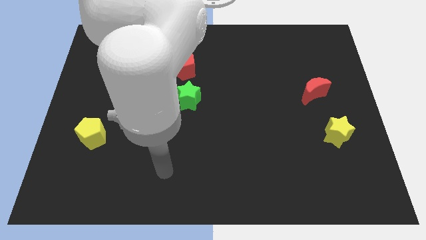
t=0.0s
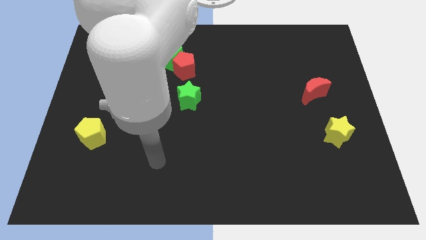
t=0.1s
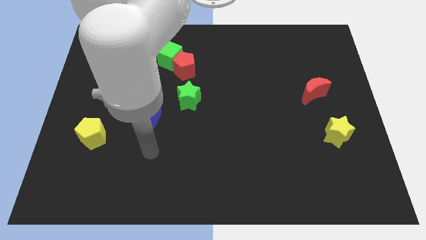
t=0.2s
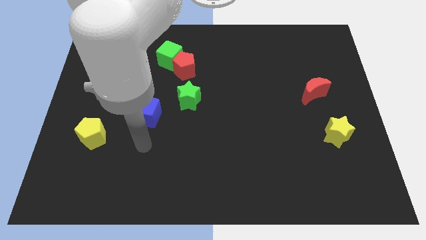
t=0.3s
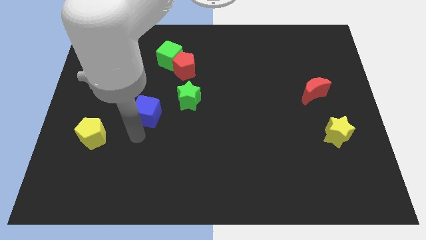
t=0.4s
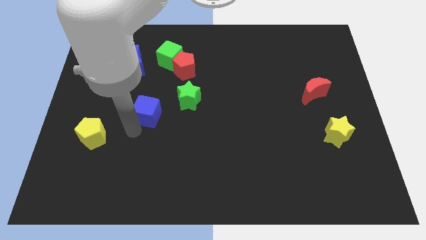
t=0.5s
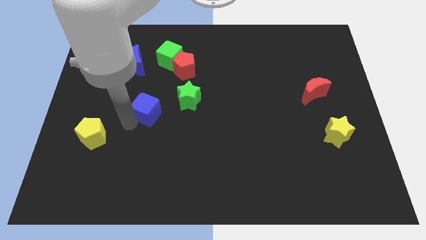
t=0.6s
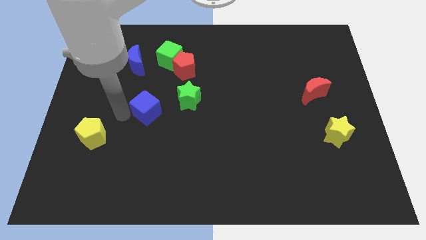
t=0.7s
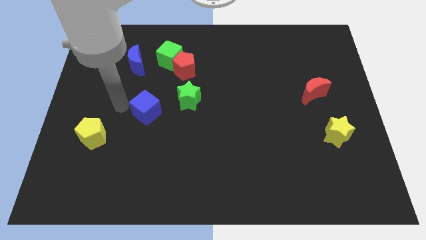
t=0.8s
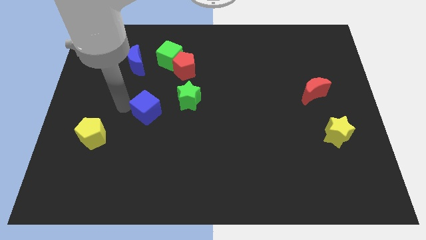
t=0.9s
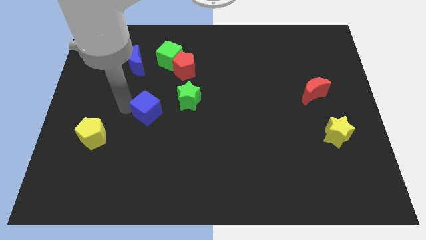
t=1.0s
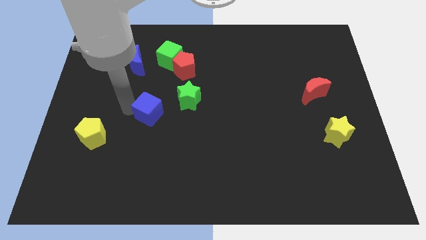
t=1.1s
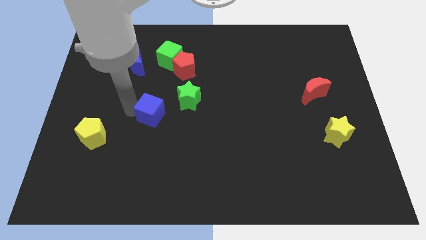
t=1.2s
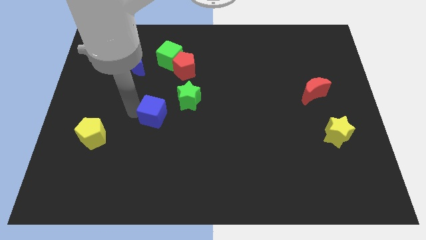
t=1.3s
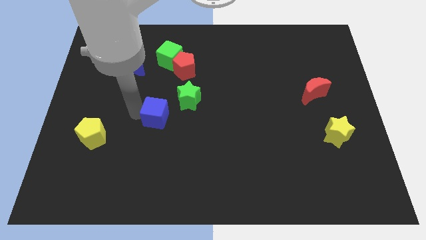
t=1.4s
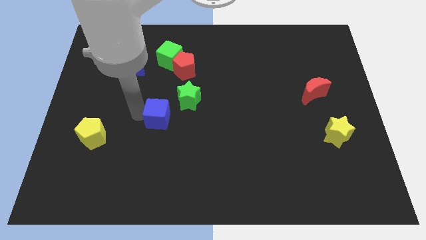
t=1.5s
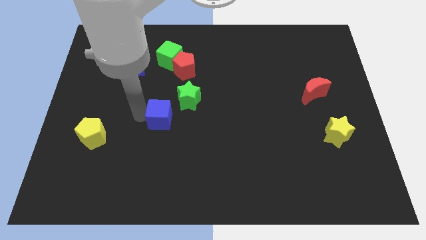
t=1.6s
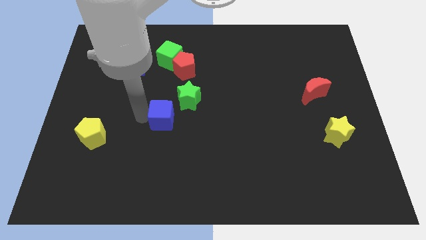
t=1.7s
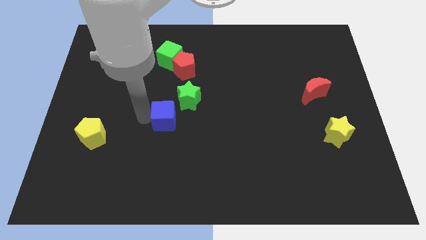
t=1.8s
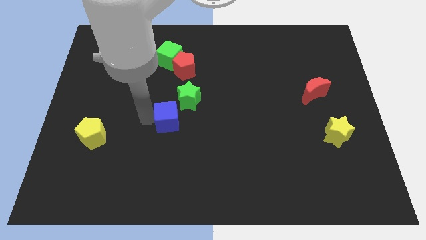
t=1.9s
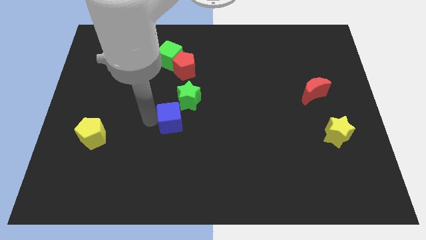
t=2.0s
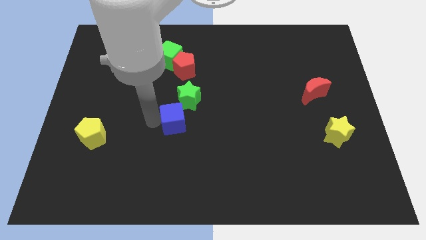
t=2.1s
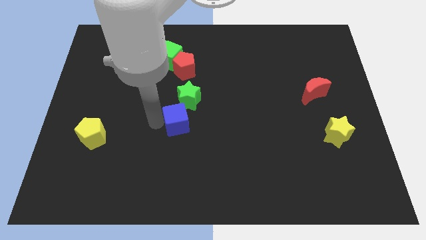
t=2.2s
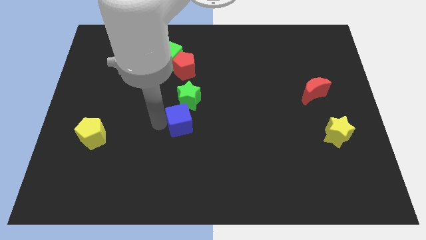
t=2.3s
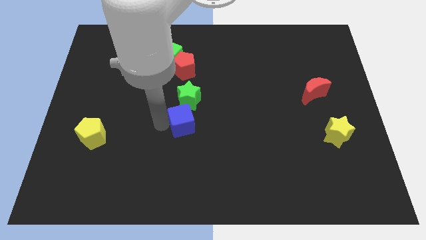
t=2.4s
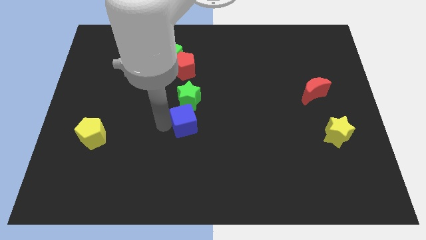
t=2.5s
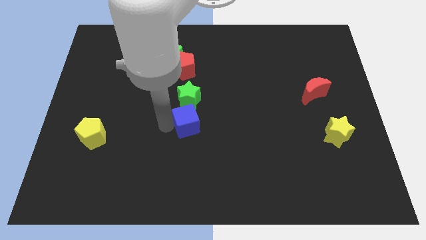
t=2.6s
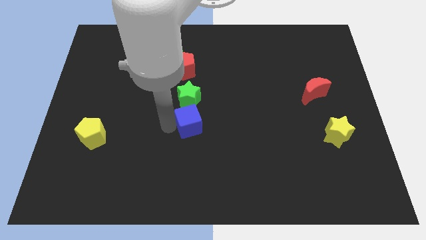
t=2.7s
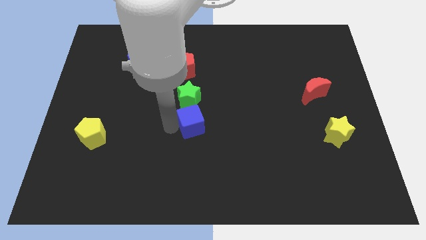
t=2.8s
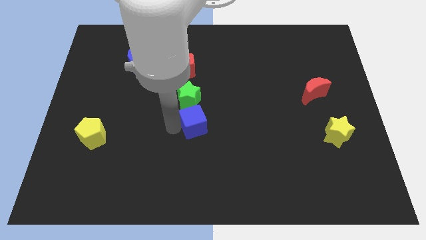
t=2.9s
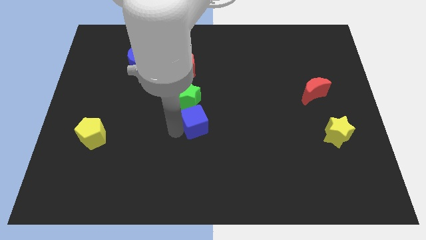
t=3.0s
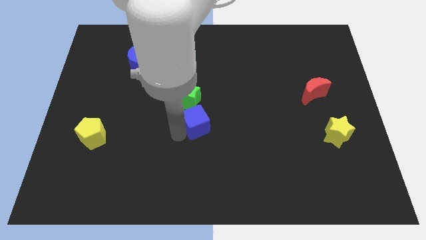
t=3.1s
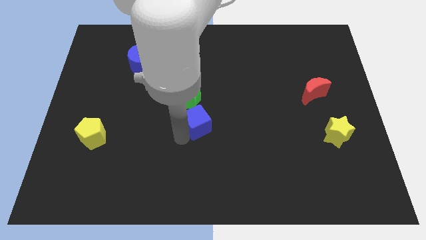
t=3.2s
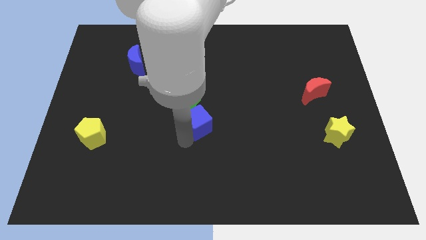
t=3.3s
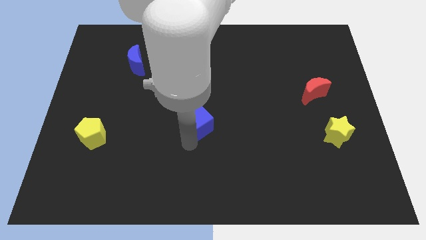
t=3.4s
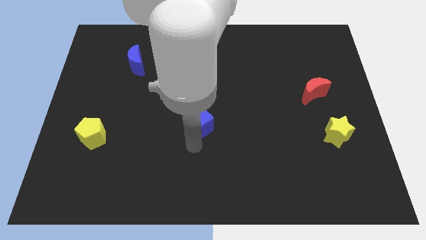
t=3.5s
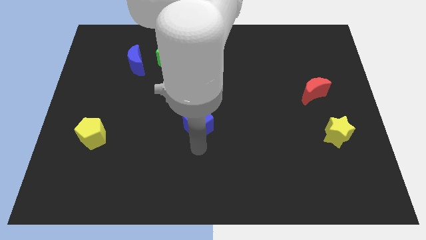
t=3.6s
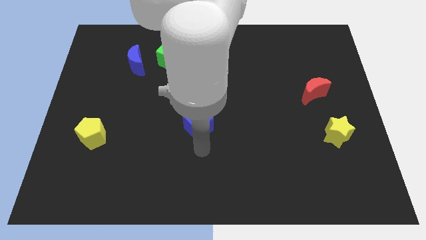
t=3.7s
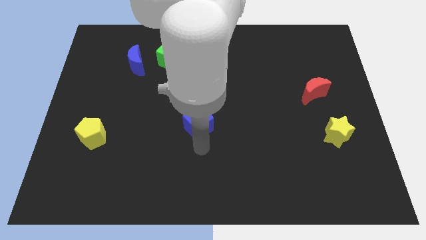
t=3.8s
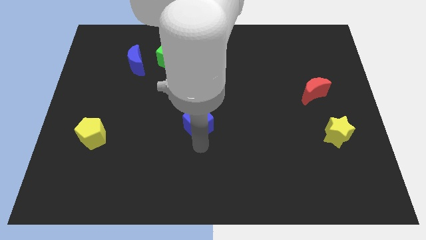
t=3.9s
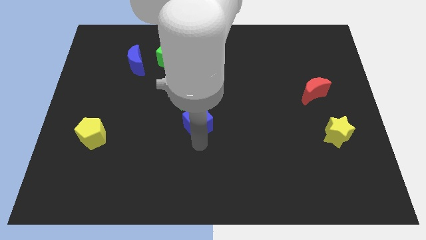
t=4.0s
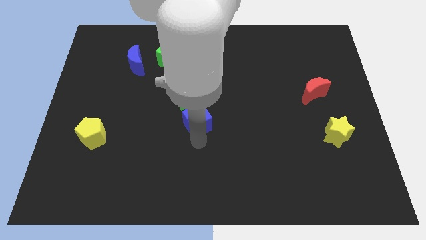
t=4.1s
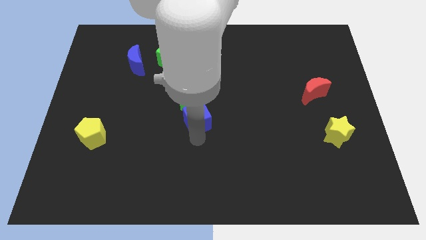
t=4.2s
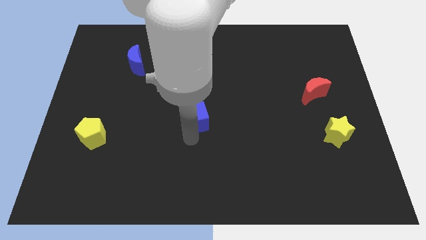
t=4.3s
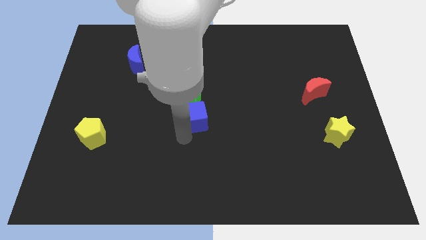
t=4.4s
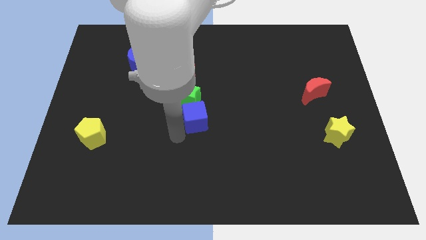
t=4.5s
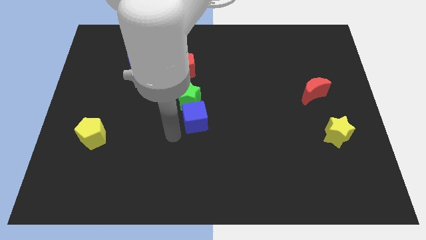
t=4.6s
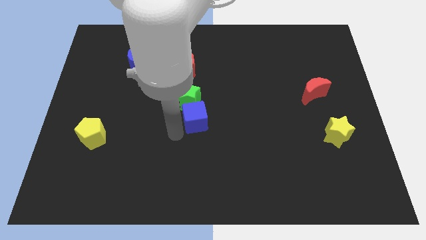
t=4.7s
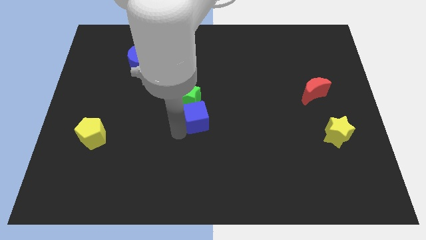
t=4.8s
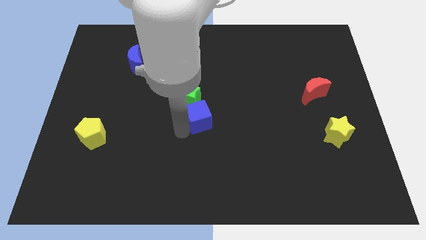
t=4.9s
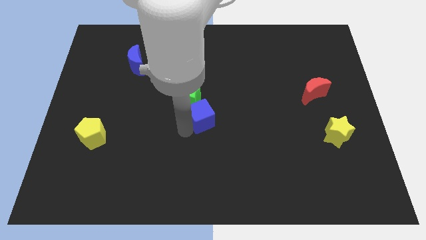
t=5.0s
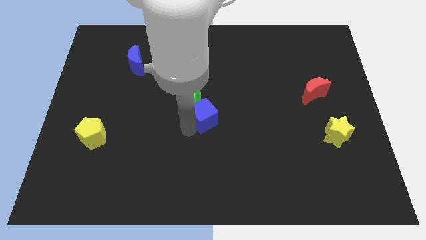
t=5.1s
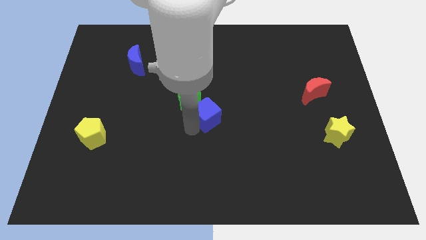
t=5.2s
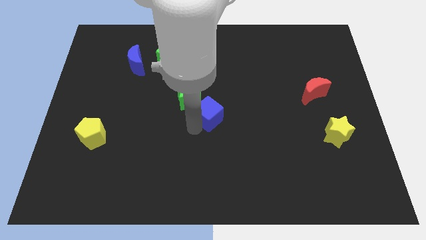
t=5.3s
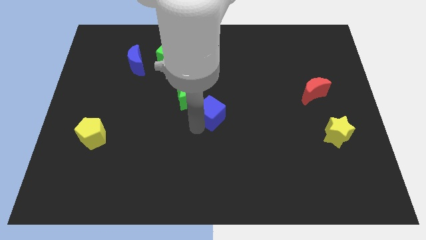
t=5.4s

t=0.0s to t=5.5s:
slide the blue cube to the right side of the green star
